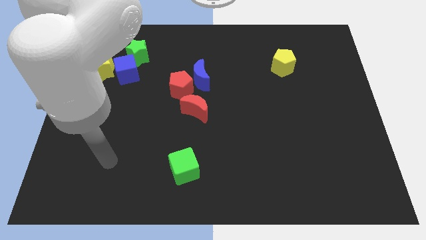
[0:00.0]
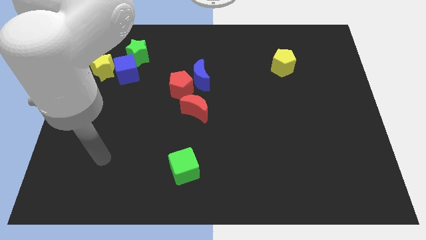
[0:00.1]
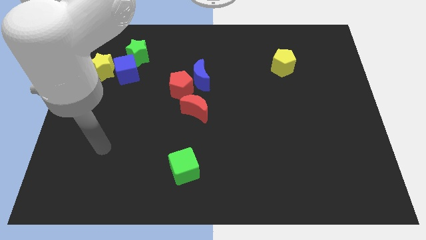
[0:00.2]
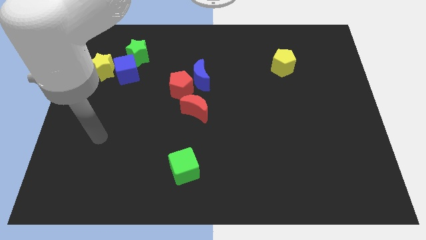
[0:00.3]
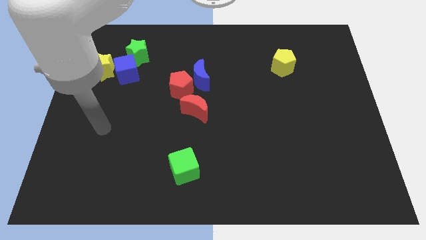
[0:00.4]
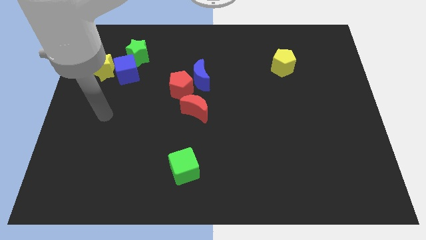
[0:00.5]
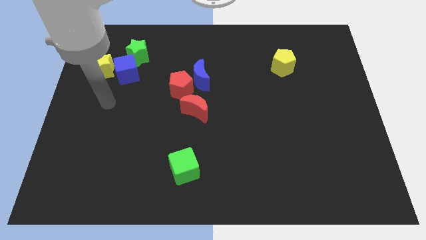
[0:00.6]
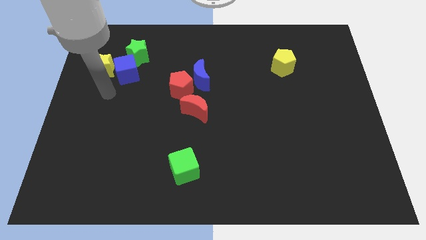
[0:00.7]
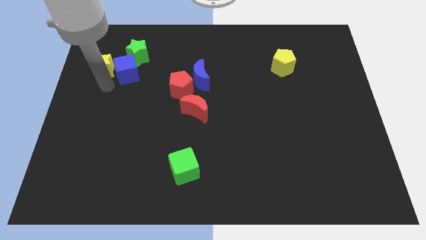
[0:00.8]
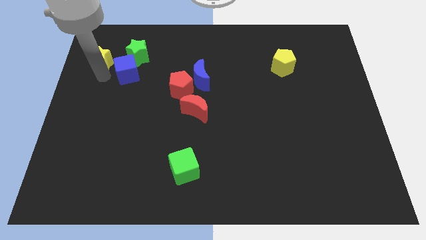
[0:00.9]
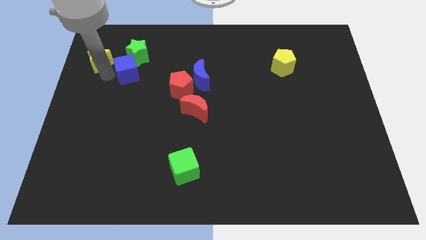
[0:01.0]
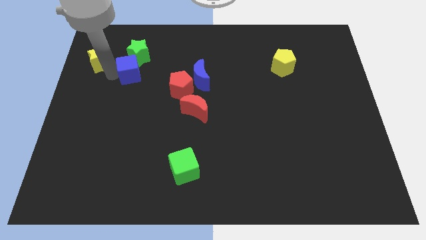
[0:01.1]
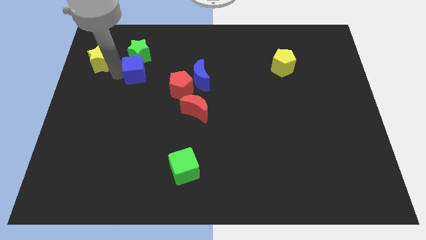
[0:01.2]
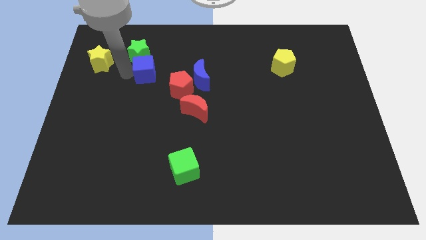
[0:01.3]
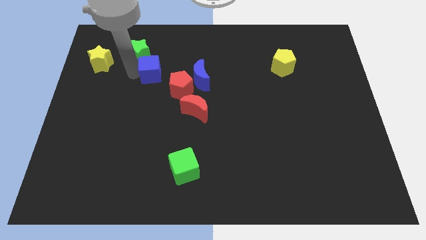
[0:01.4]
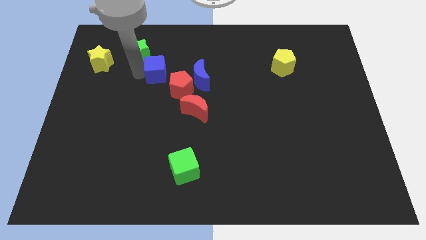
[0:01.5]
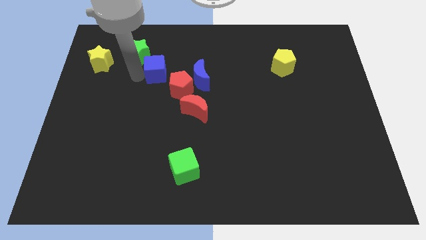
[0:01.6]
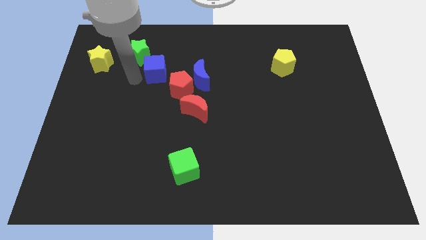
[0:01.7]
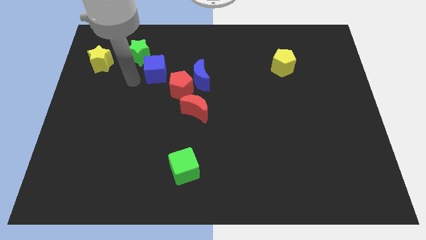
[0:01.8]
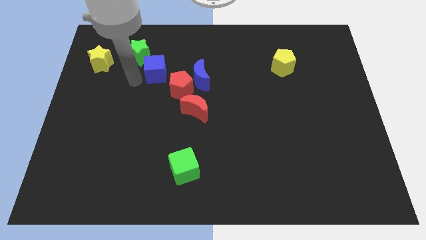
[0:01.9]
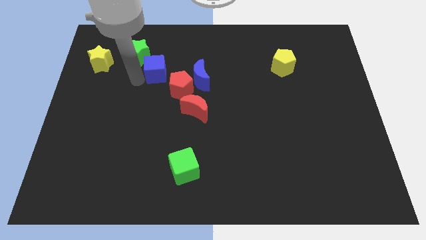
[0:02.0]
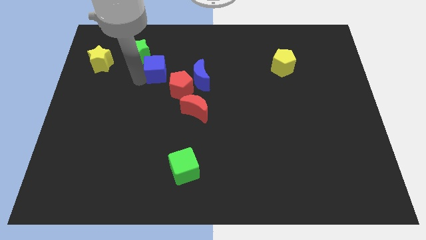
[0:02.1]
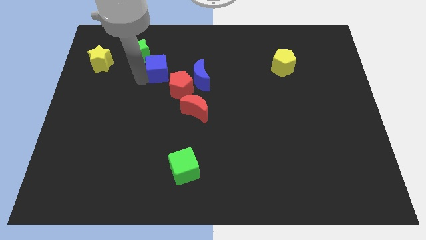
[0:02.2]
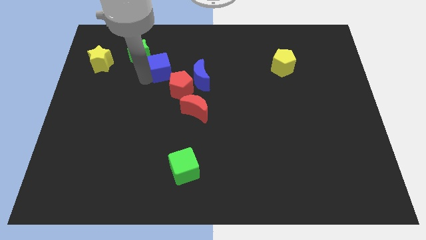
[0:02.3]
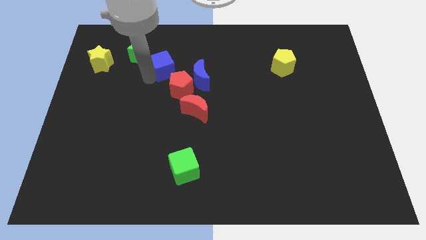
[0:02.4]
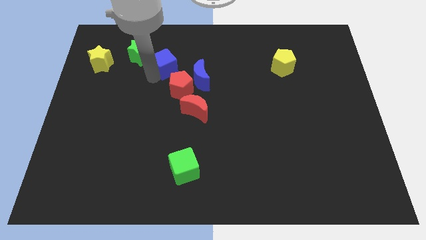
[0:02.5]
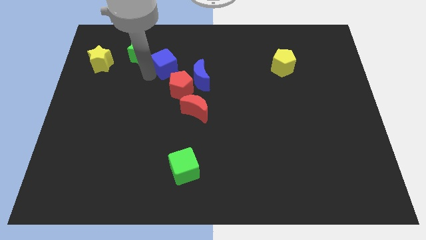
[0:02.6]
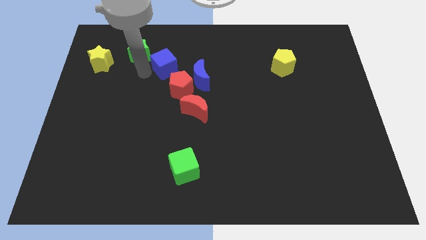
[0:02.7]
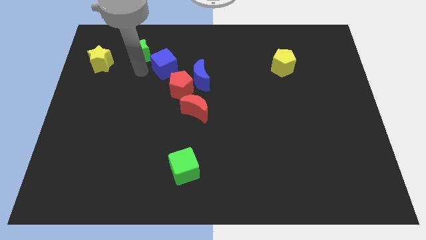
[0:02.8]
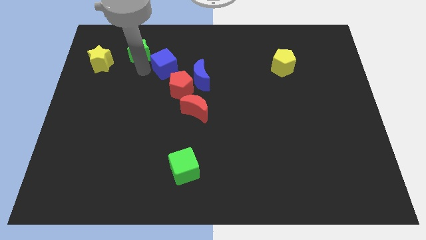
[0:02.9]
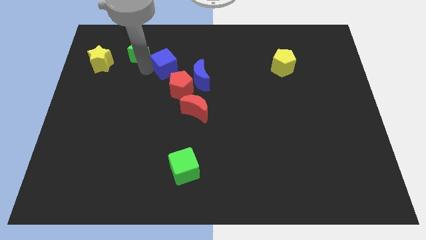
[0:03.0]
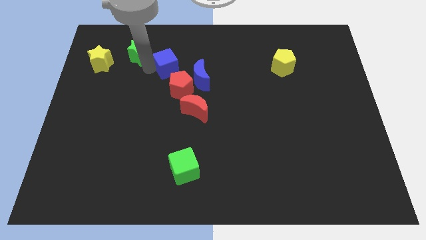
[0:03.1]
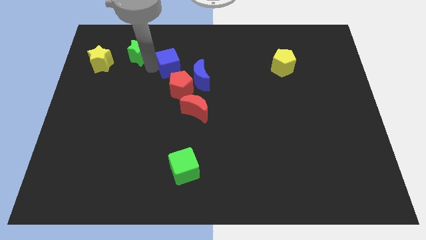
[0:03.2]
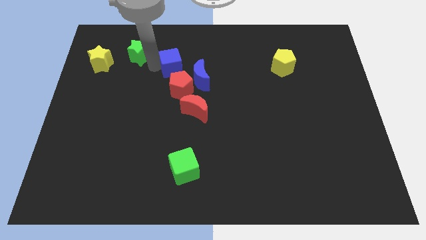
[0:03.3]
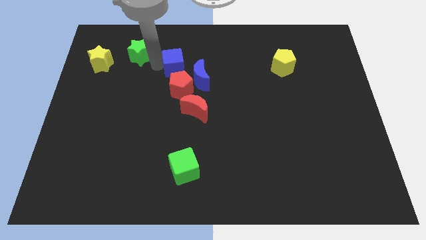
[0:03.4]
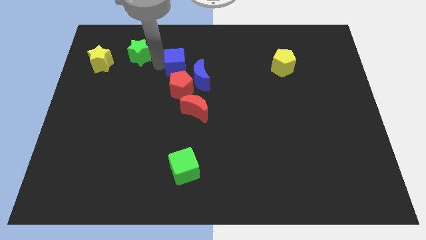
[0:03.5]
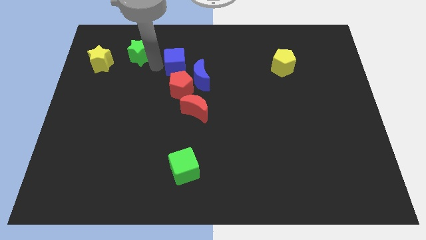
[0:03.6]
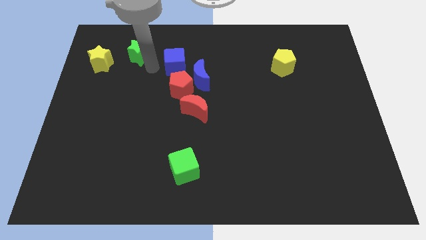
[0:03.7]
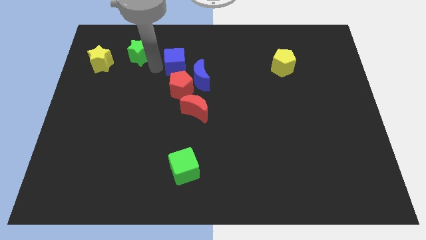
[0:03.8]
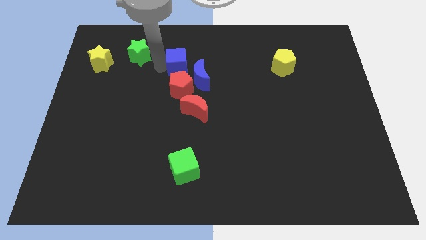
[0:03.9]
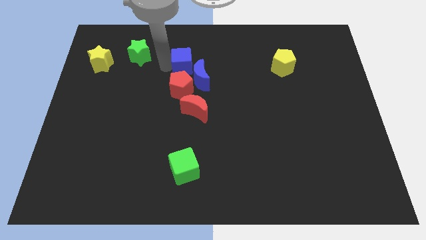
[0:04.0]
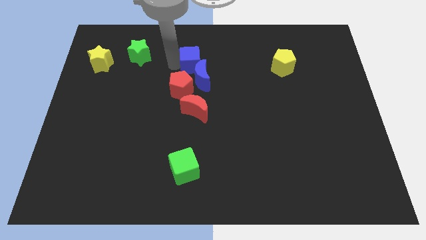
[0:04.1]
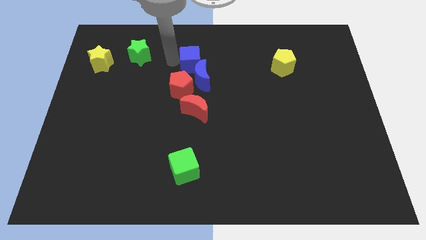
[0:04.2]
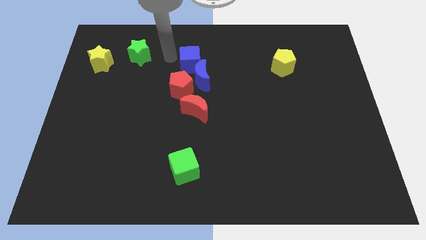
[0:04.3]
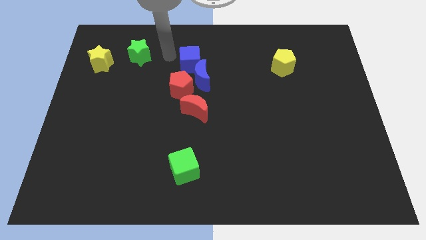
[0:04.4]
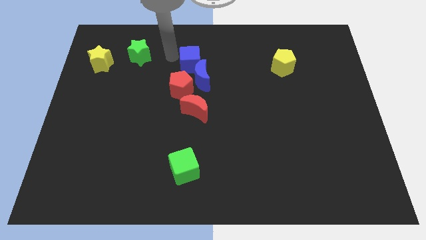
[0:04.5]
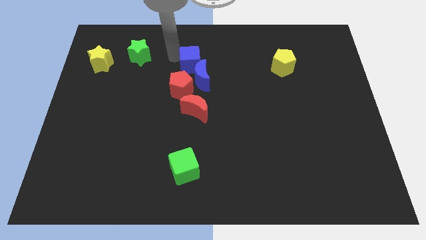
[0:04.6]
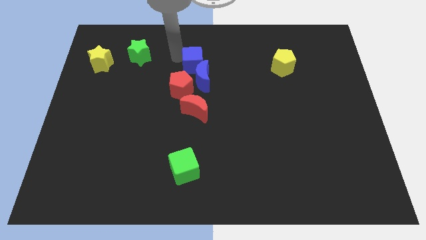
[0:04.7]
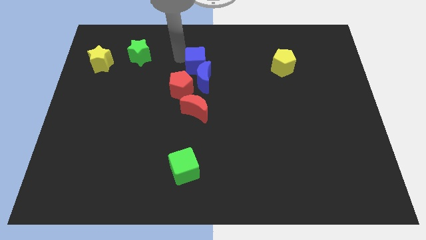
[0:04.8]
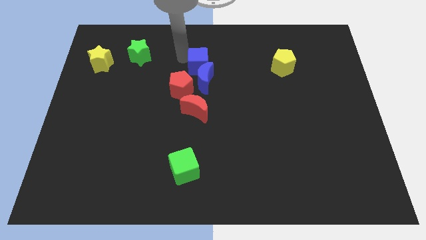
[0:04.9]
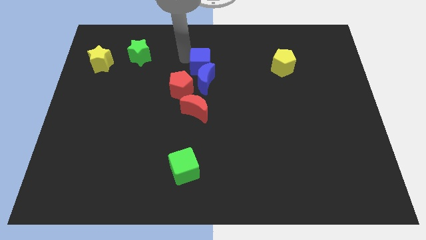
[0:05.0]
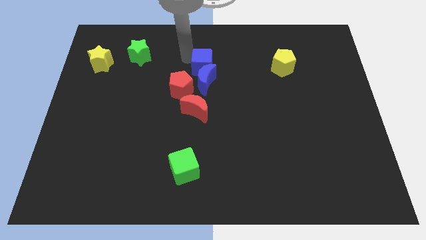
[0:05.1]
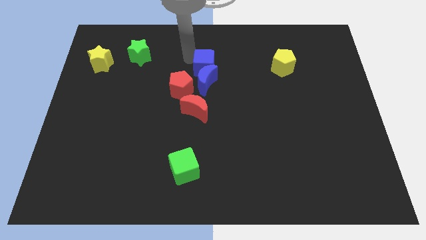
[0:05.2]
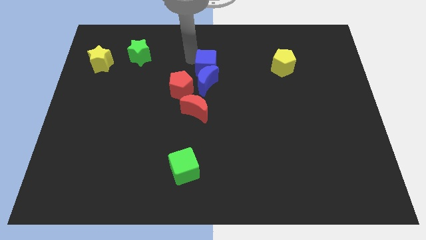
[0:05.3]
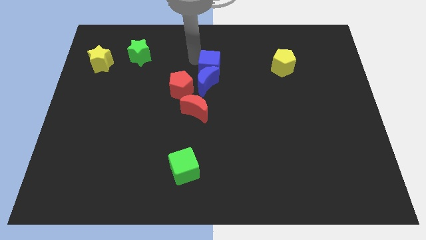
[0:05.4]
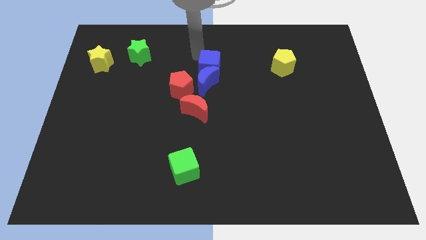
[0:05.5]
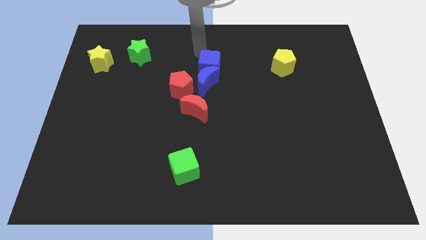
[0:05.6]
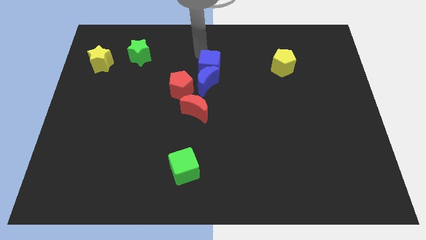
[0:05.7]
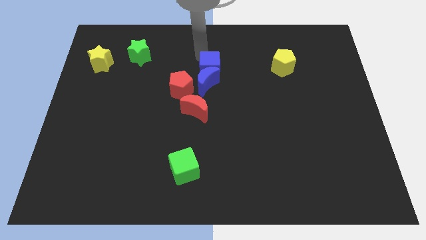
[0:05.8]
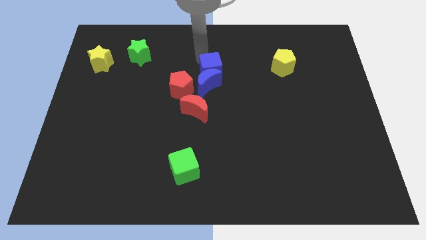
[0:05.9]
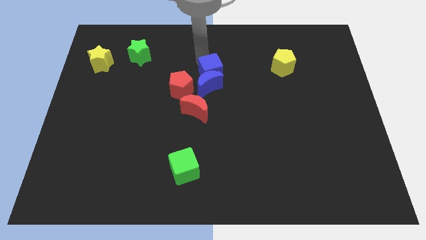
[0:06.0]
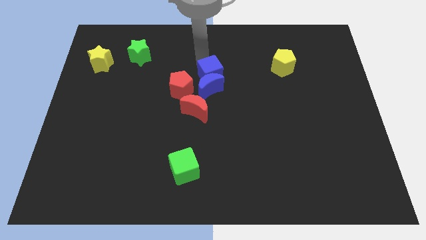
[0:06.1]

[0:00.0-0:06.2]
slide the blue cube just right of the red pentagon

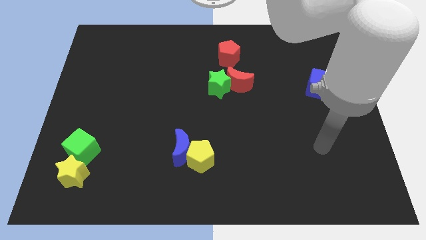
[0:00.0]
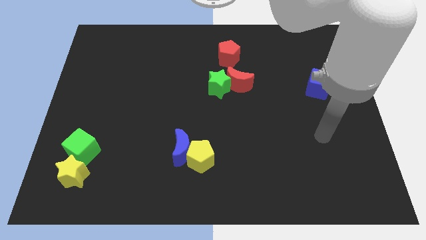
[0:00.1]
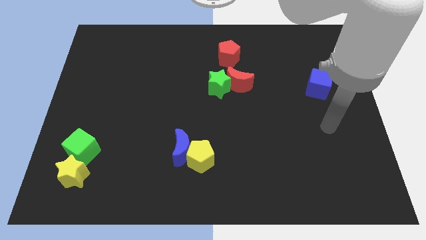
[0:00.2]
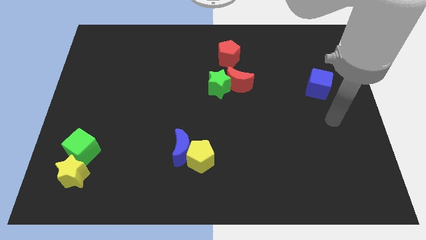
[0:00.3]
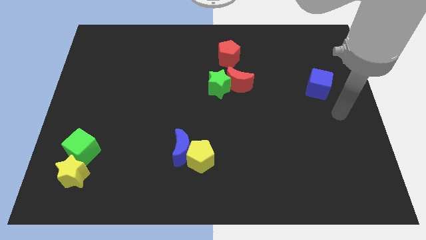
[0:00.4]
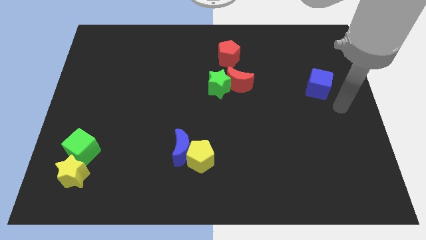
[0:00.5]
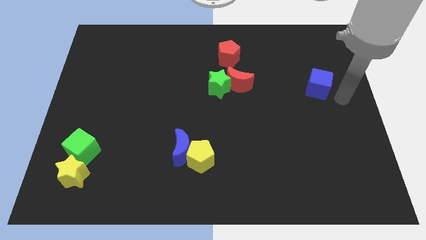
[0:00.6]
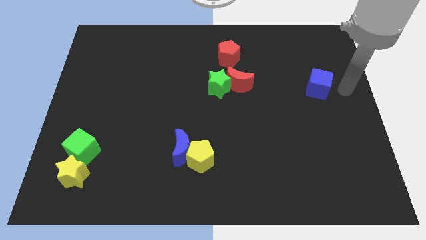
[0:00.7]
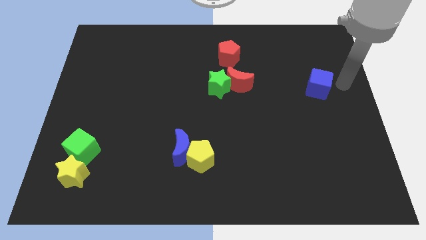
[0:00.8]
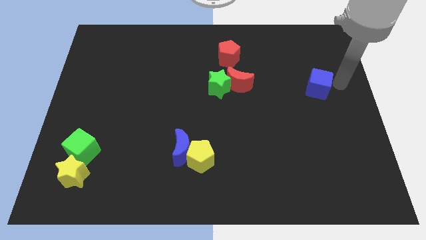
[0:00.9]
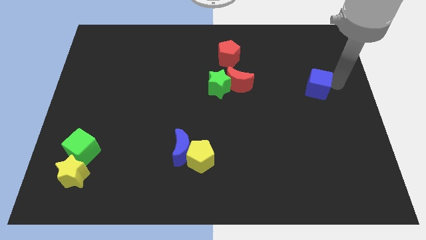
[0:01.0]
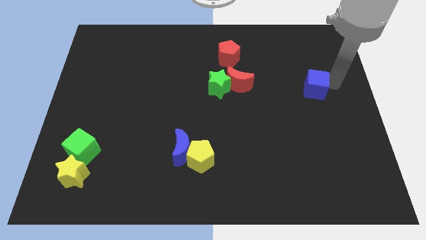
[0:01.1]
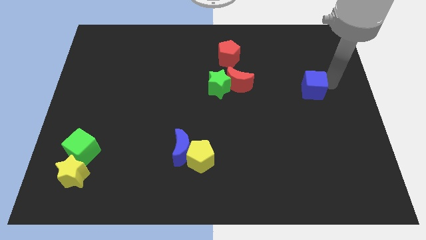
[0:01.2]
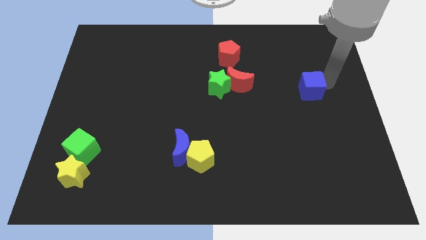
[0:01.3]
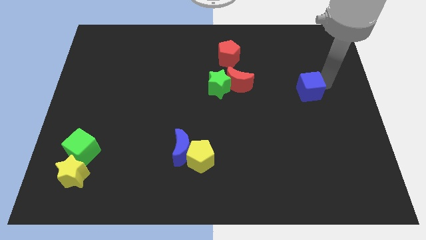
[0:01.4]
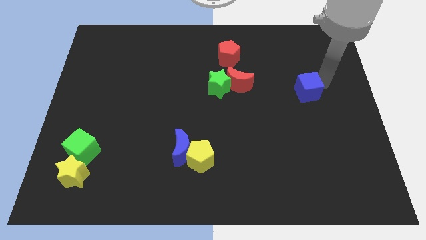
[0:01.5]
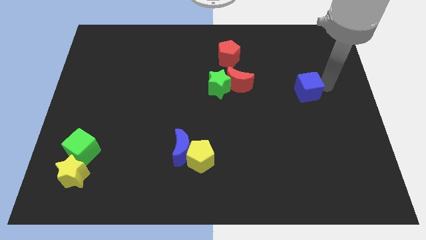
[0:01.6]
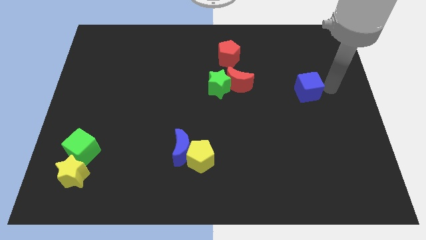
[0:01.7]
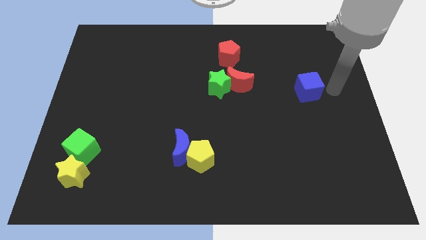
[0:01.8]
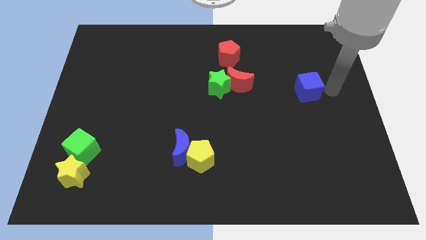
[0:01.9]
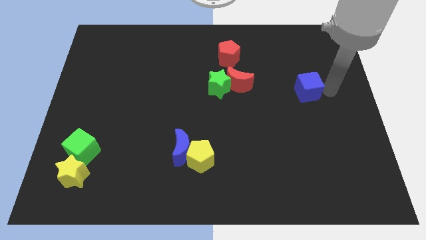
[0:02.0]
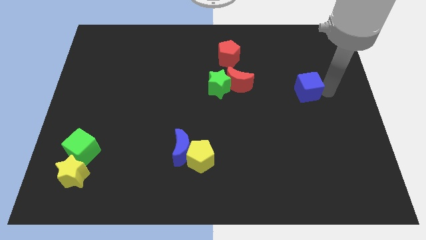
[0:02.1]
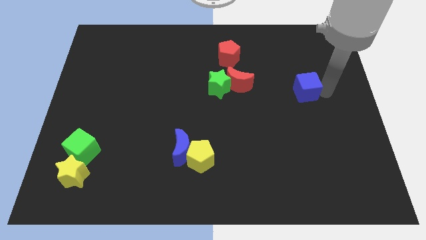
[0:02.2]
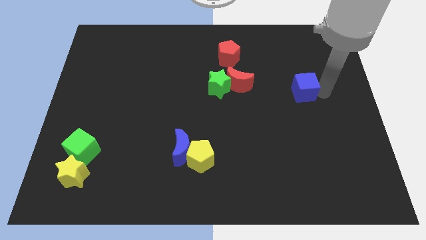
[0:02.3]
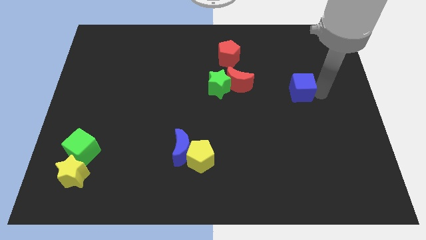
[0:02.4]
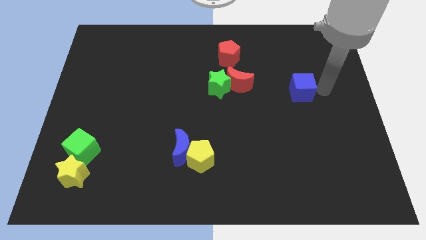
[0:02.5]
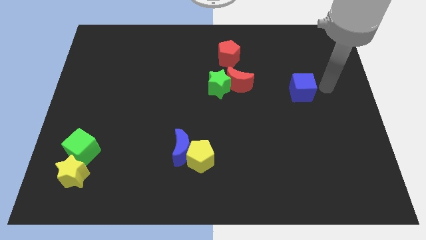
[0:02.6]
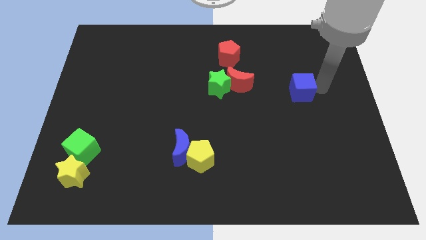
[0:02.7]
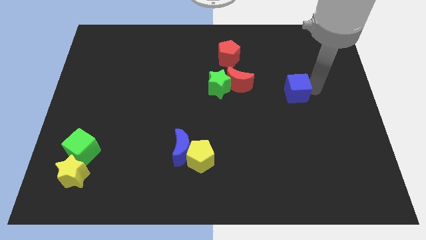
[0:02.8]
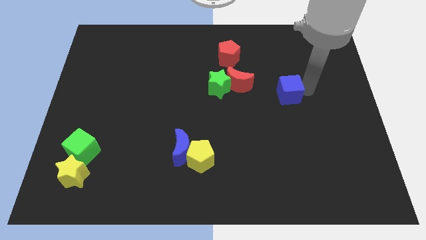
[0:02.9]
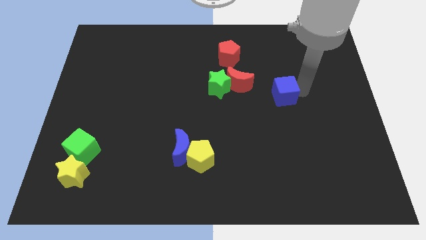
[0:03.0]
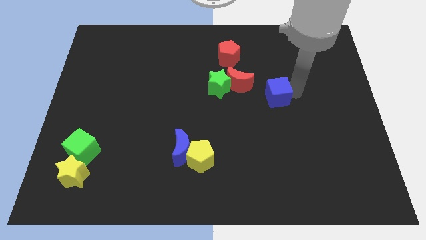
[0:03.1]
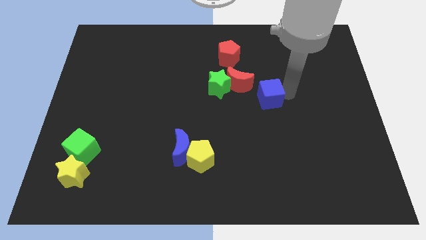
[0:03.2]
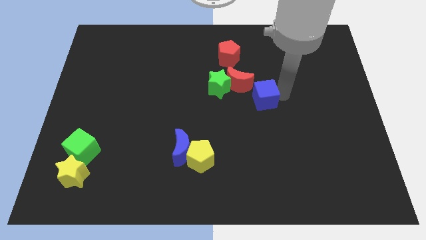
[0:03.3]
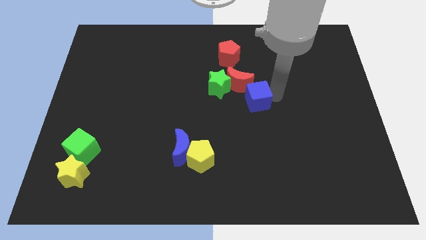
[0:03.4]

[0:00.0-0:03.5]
put the blue cube to the bottom right of the green star
